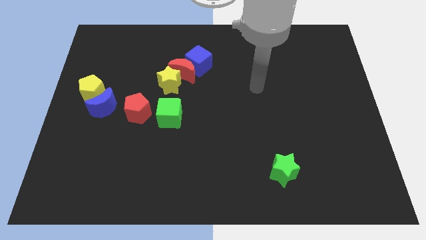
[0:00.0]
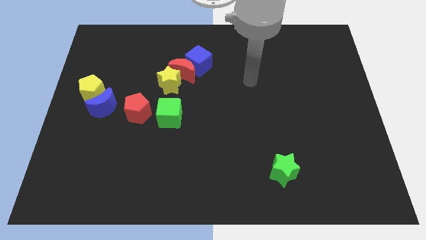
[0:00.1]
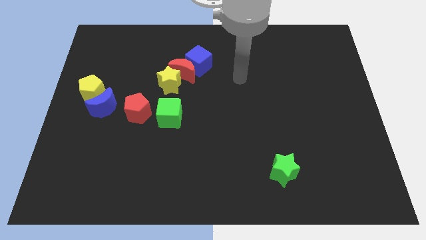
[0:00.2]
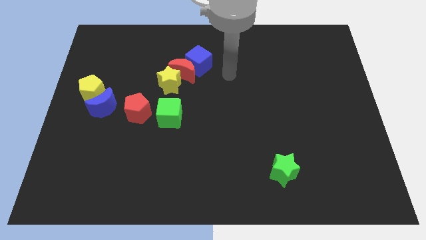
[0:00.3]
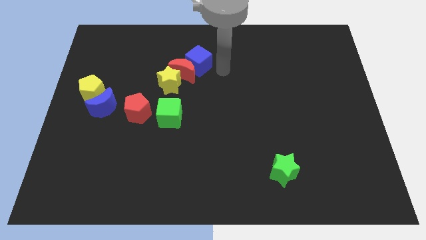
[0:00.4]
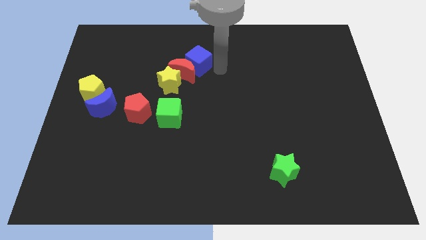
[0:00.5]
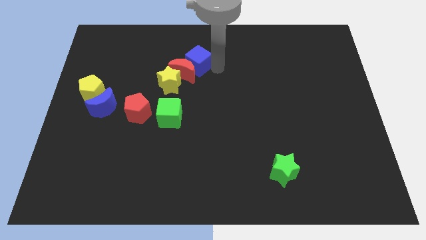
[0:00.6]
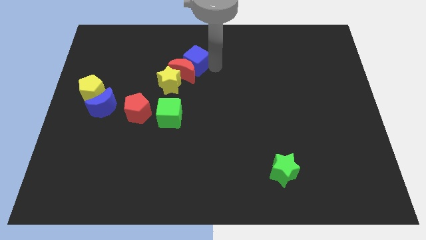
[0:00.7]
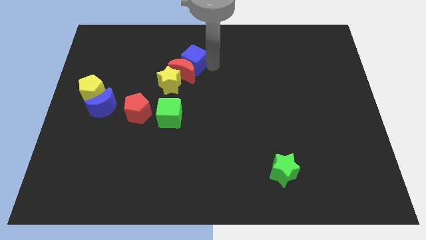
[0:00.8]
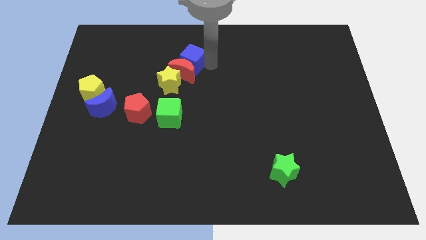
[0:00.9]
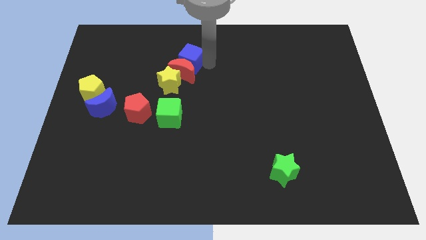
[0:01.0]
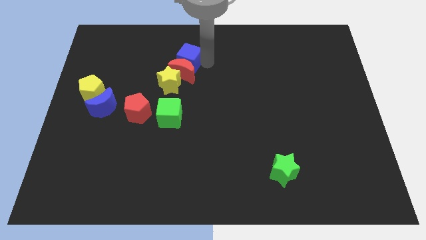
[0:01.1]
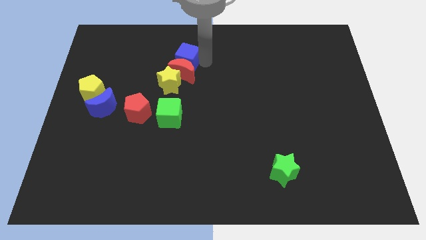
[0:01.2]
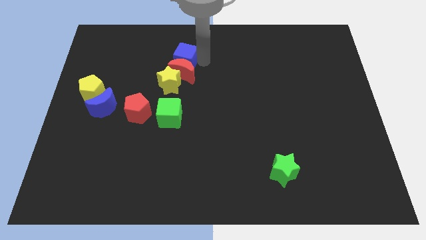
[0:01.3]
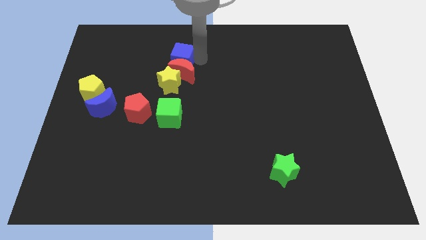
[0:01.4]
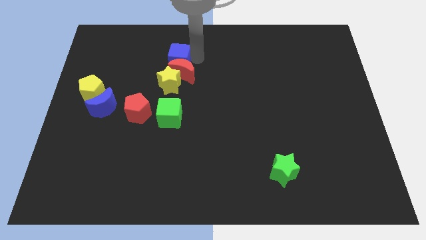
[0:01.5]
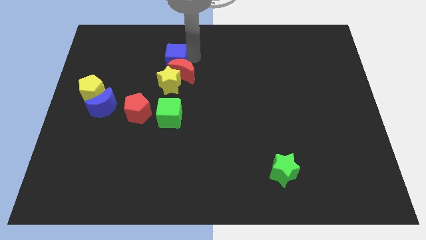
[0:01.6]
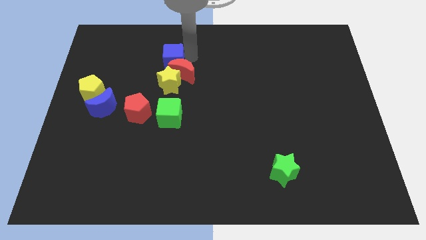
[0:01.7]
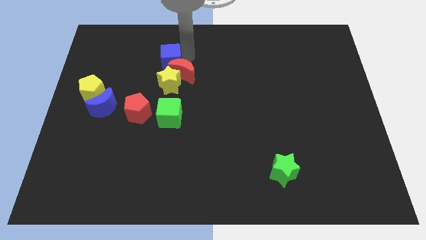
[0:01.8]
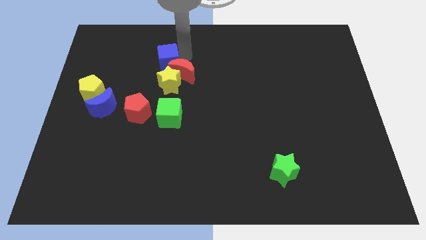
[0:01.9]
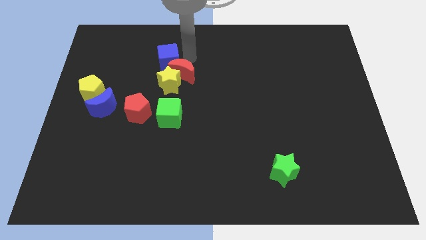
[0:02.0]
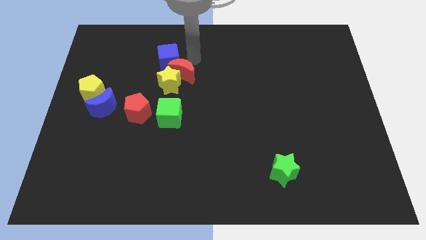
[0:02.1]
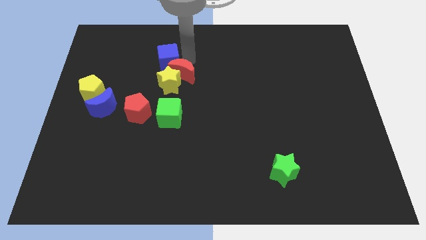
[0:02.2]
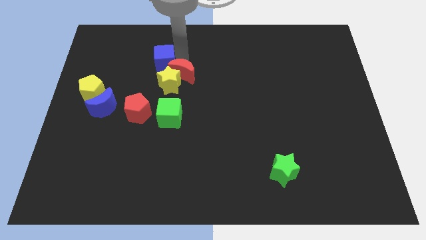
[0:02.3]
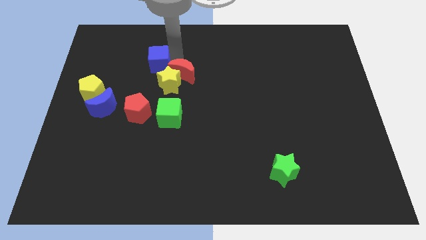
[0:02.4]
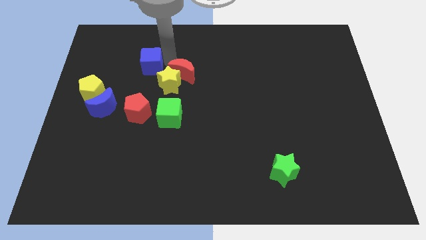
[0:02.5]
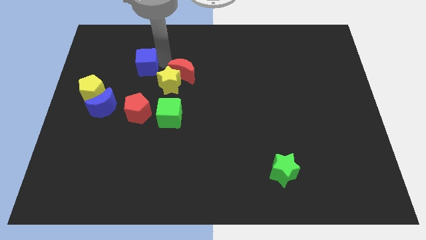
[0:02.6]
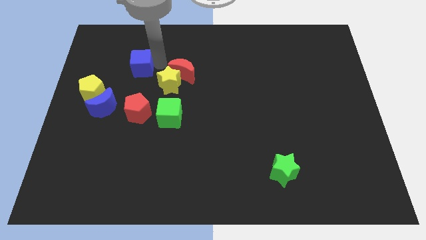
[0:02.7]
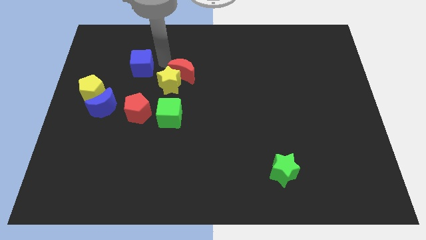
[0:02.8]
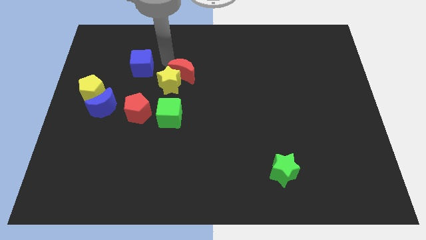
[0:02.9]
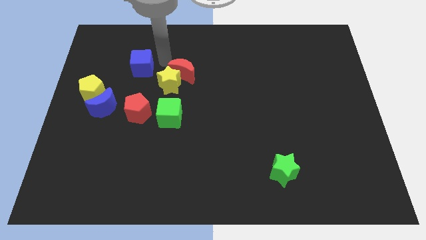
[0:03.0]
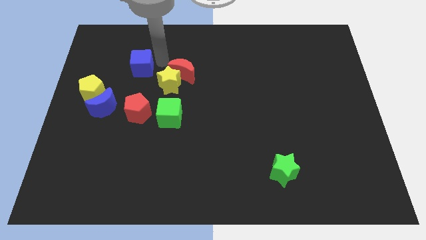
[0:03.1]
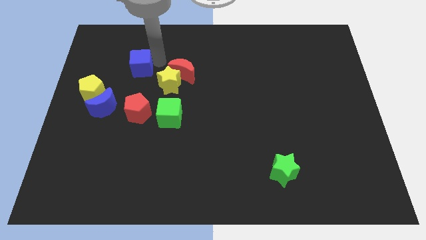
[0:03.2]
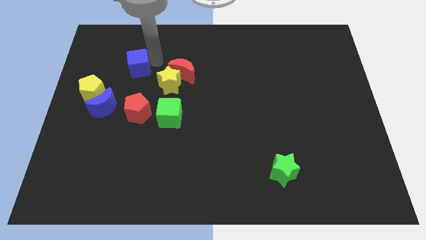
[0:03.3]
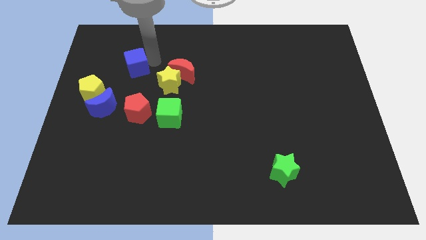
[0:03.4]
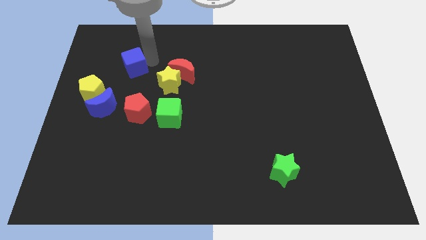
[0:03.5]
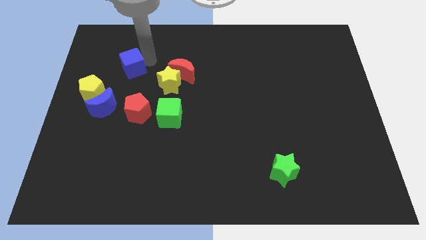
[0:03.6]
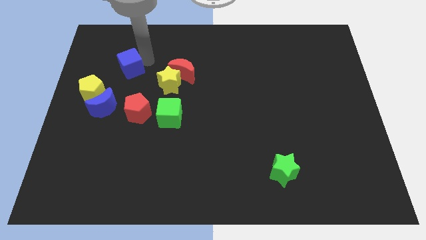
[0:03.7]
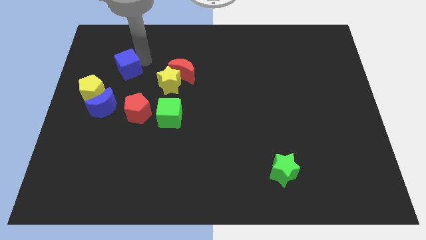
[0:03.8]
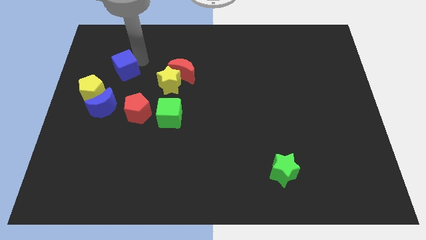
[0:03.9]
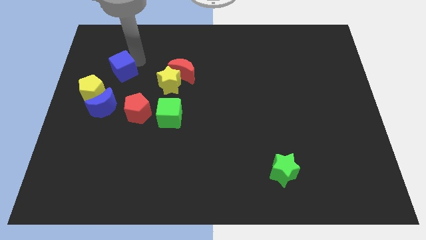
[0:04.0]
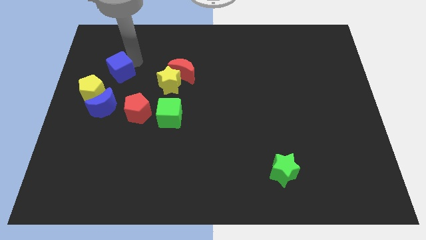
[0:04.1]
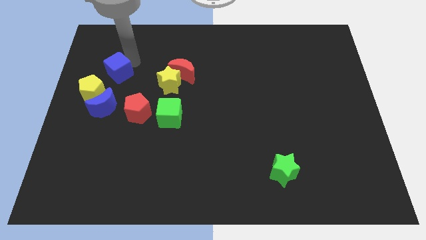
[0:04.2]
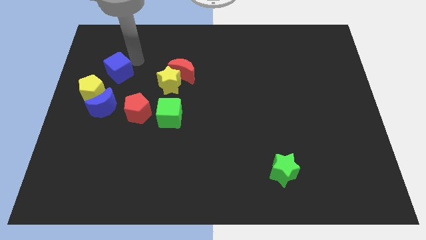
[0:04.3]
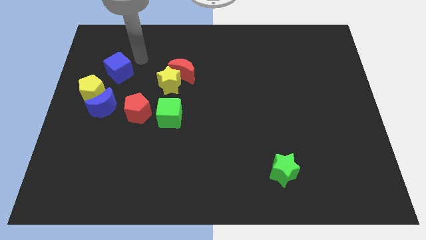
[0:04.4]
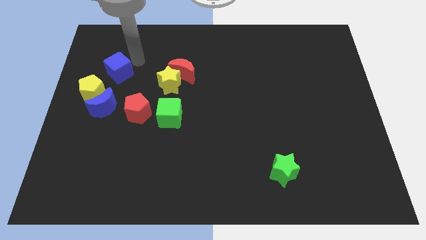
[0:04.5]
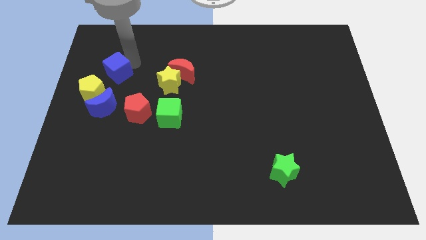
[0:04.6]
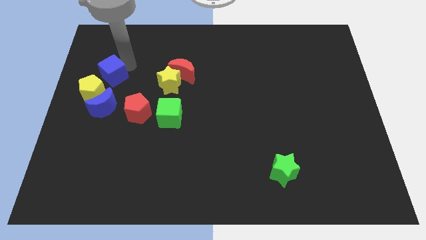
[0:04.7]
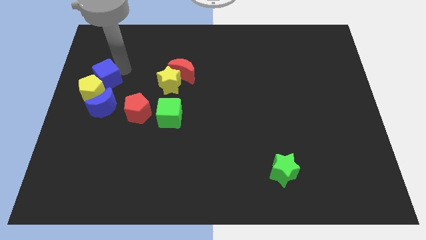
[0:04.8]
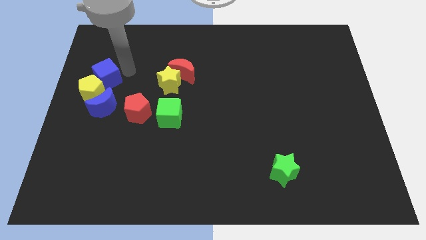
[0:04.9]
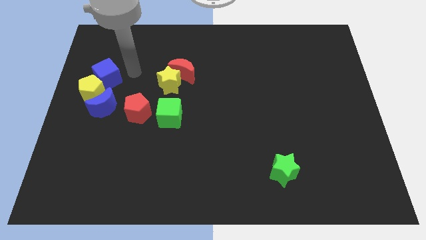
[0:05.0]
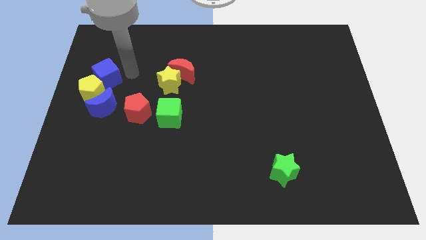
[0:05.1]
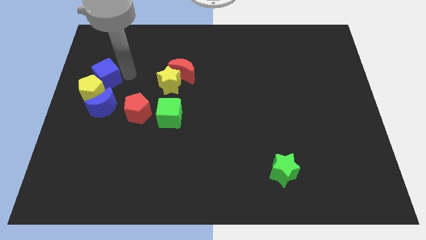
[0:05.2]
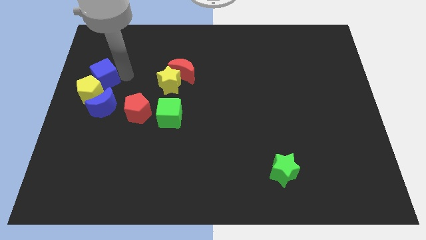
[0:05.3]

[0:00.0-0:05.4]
put the blue cube to the center left

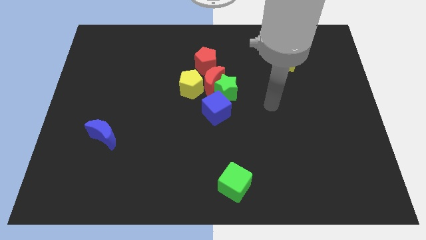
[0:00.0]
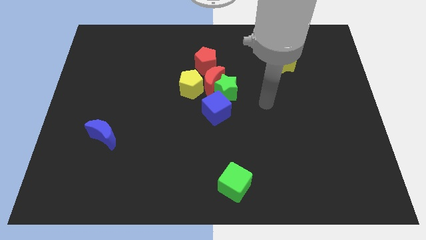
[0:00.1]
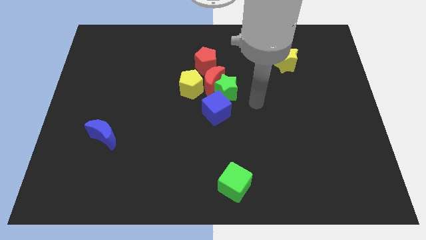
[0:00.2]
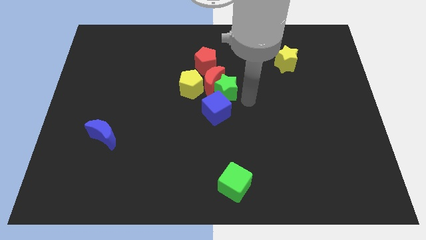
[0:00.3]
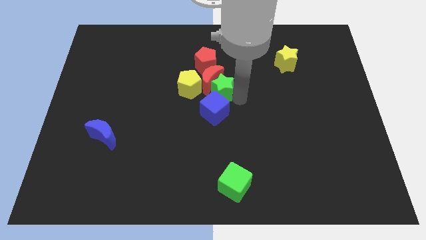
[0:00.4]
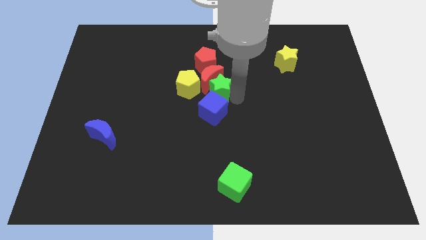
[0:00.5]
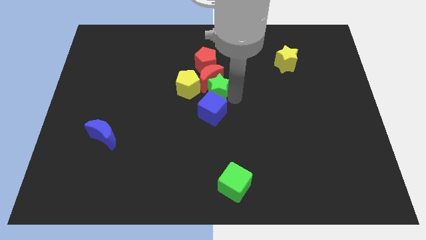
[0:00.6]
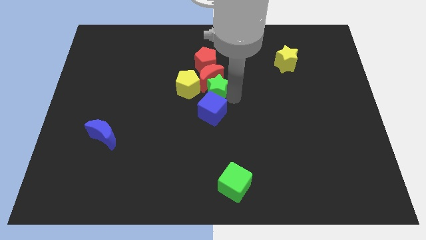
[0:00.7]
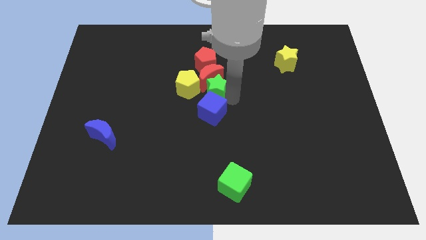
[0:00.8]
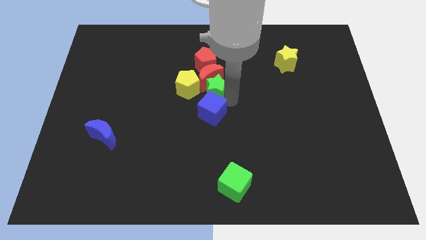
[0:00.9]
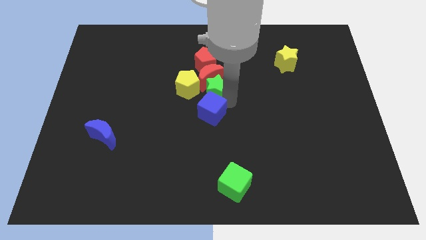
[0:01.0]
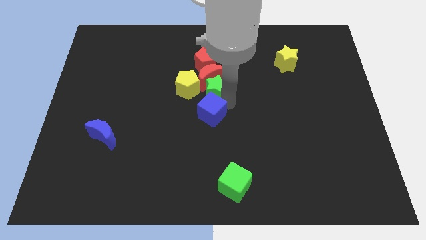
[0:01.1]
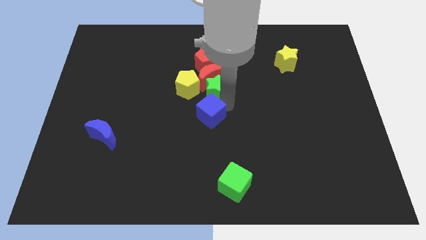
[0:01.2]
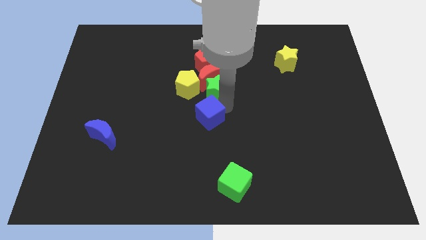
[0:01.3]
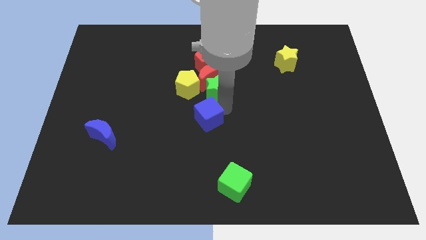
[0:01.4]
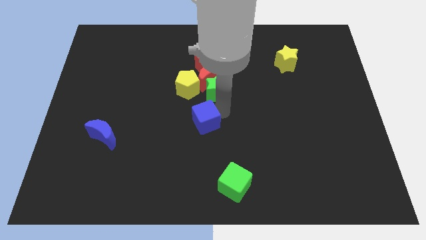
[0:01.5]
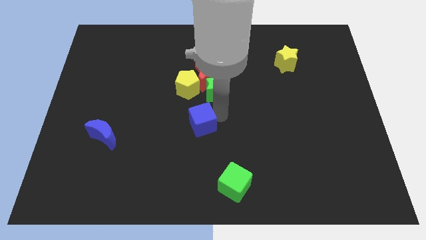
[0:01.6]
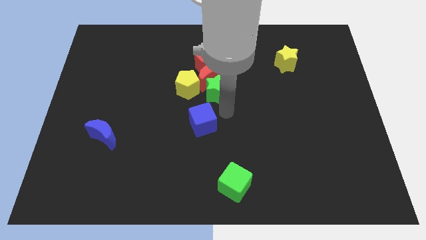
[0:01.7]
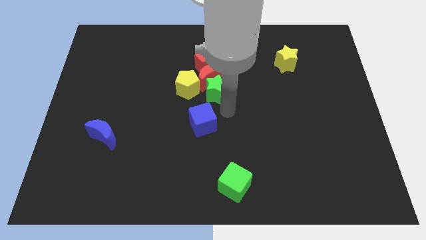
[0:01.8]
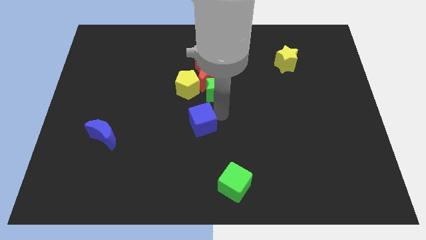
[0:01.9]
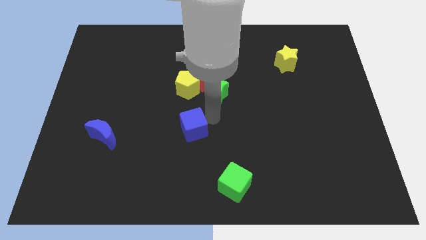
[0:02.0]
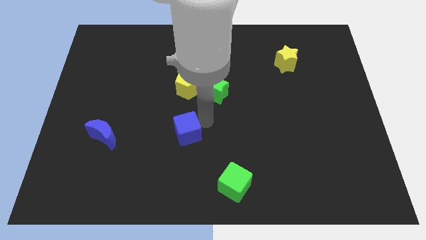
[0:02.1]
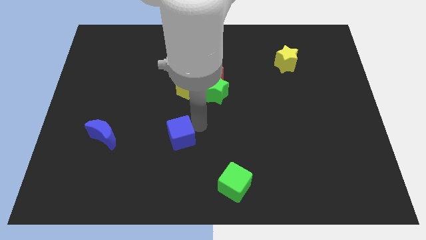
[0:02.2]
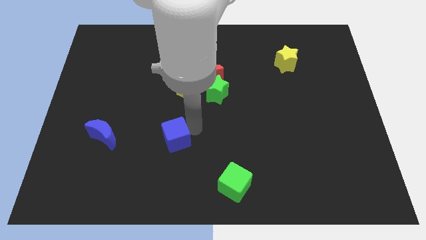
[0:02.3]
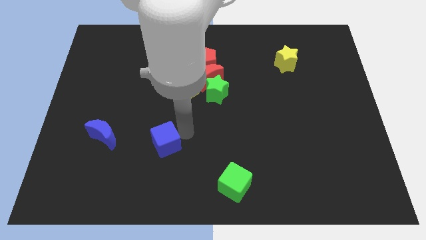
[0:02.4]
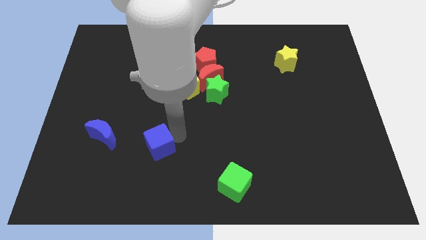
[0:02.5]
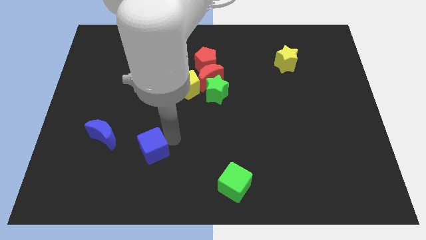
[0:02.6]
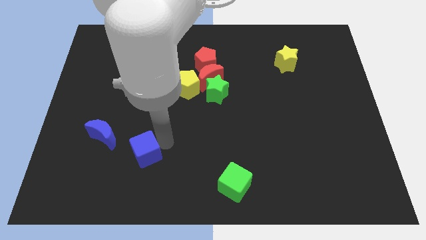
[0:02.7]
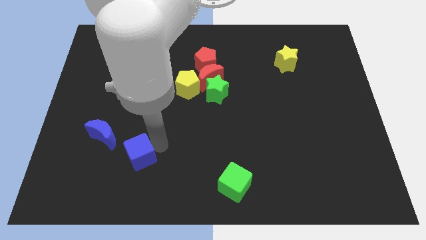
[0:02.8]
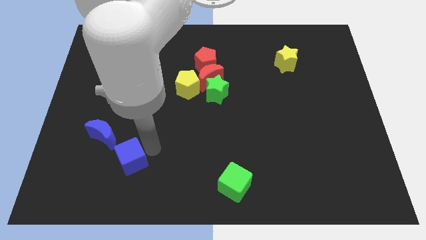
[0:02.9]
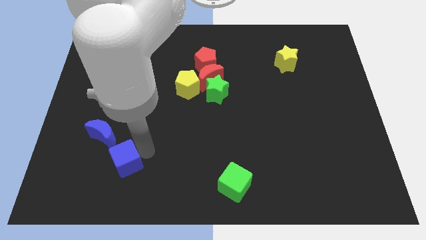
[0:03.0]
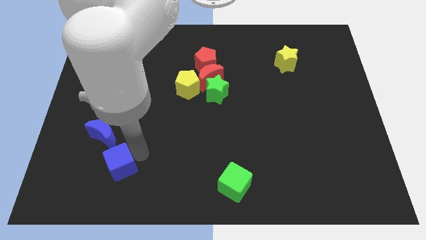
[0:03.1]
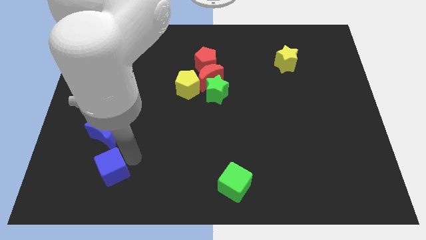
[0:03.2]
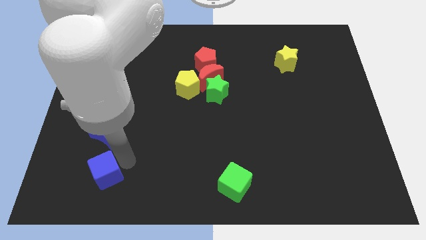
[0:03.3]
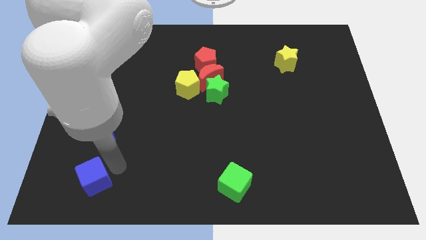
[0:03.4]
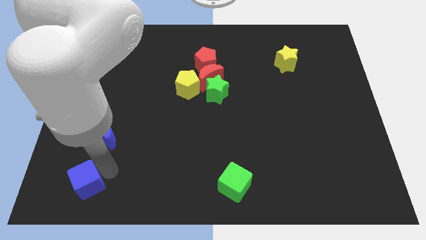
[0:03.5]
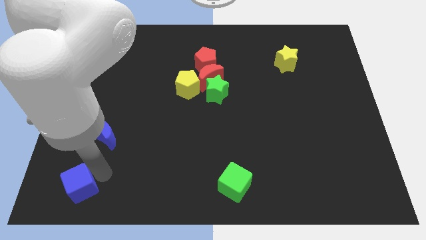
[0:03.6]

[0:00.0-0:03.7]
push the blue cube to the bottom left
